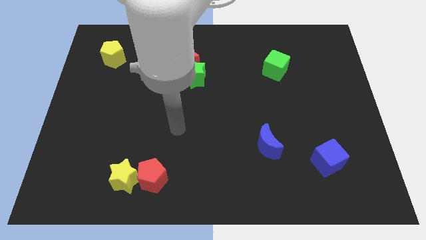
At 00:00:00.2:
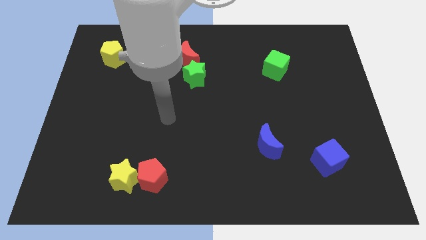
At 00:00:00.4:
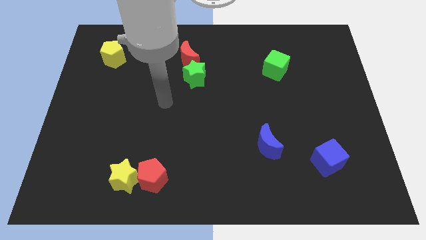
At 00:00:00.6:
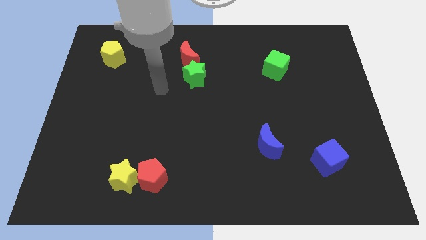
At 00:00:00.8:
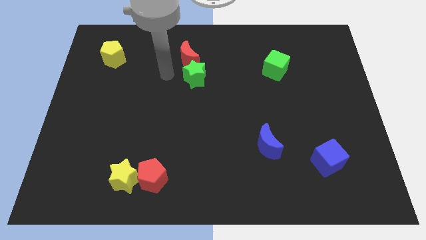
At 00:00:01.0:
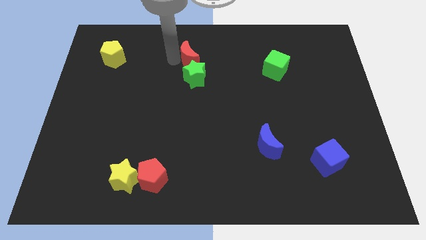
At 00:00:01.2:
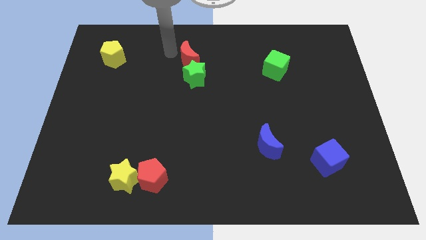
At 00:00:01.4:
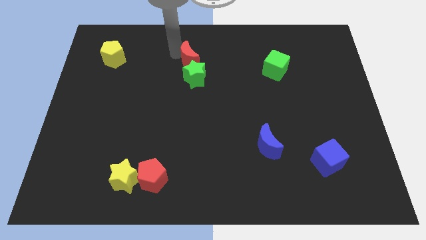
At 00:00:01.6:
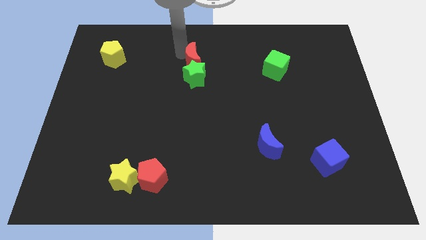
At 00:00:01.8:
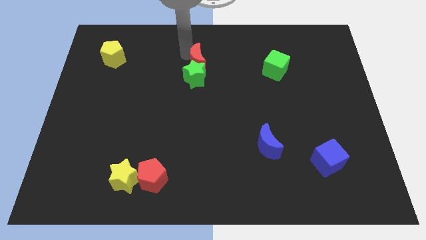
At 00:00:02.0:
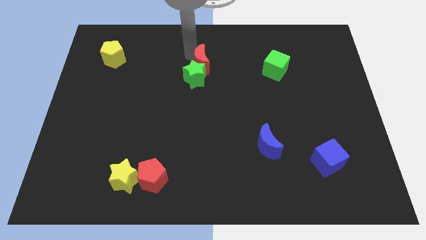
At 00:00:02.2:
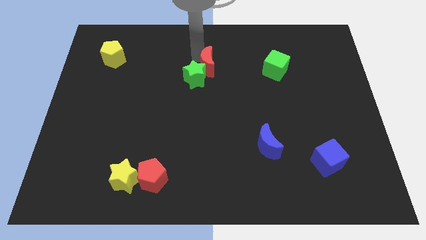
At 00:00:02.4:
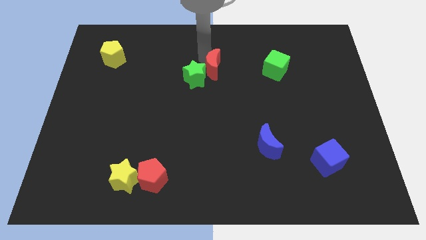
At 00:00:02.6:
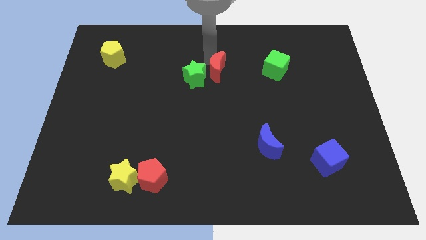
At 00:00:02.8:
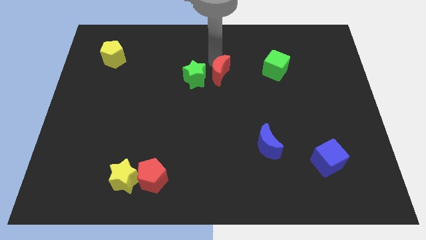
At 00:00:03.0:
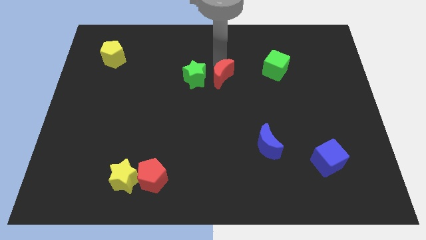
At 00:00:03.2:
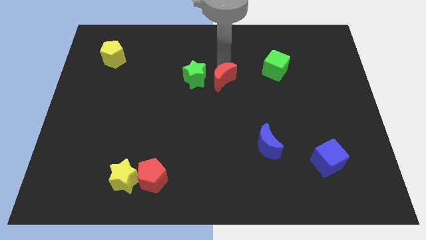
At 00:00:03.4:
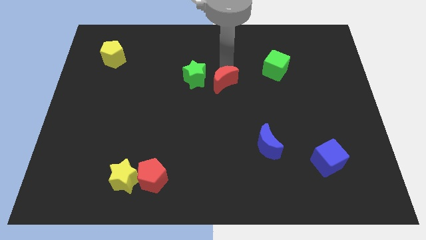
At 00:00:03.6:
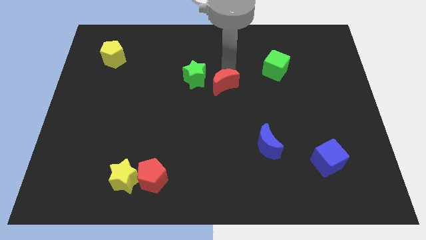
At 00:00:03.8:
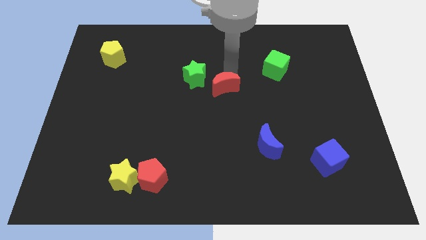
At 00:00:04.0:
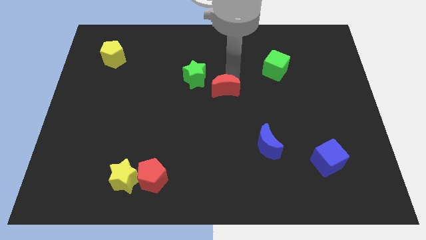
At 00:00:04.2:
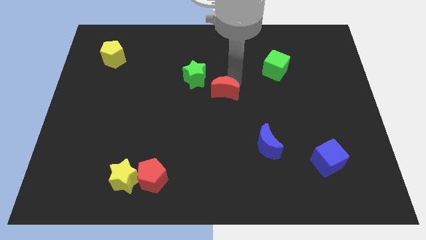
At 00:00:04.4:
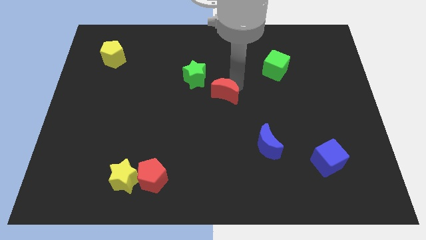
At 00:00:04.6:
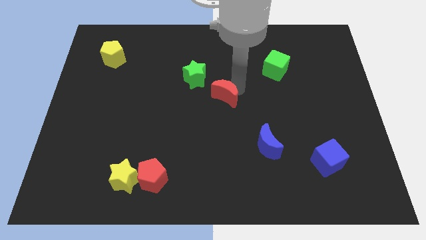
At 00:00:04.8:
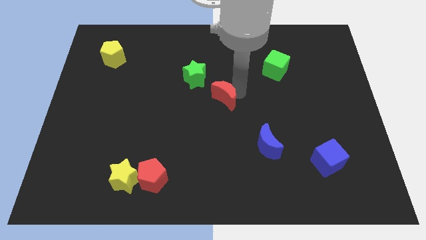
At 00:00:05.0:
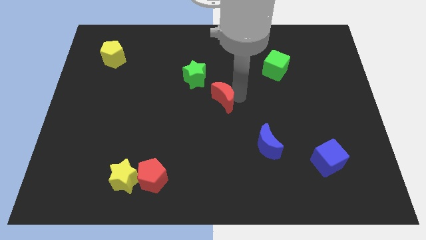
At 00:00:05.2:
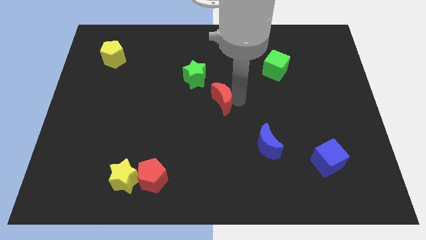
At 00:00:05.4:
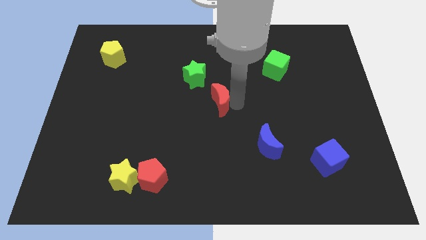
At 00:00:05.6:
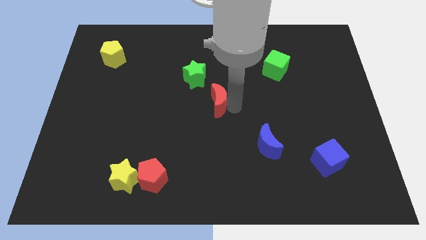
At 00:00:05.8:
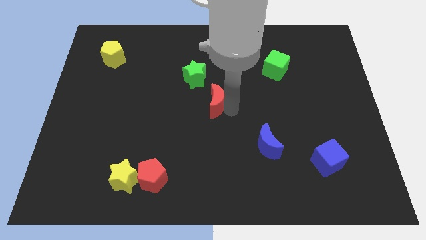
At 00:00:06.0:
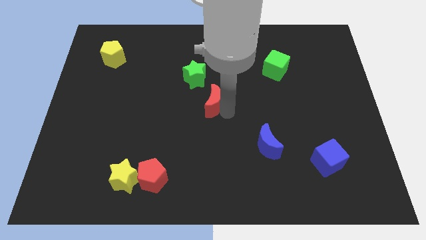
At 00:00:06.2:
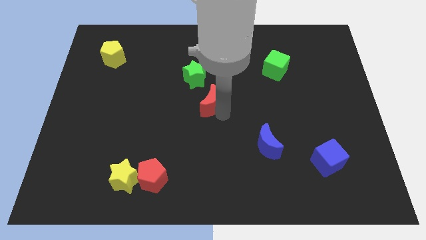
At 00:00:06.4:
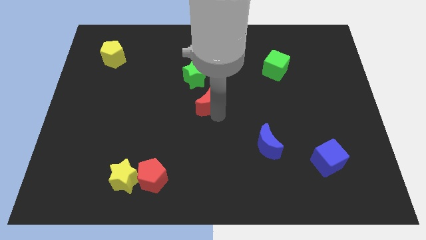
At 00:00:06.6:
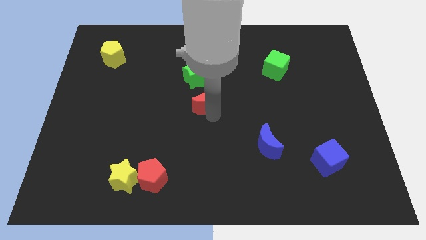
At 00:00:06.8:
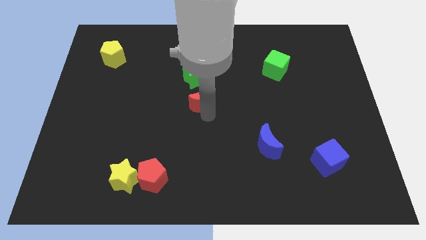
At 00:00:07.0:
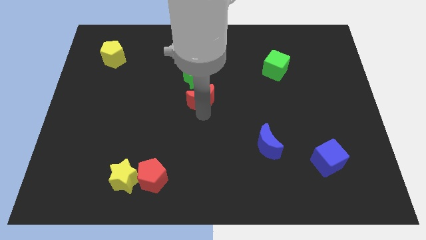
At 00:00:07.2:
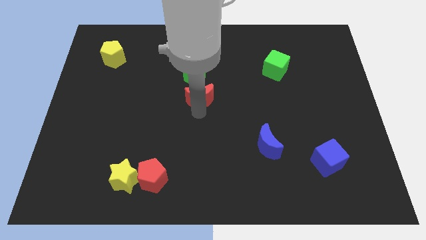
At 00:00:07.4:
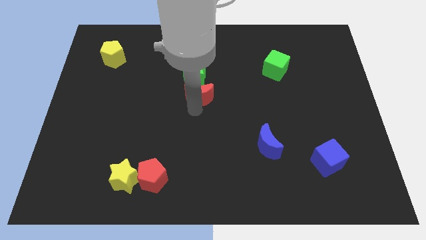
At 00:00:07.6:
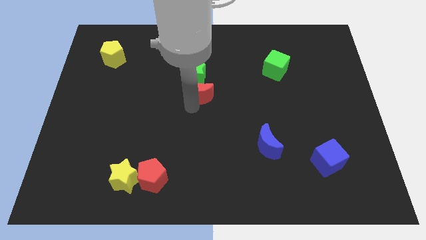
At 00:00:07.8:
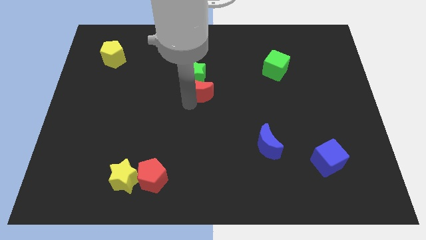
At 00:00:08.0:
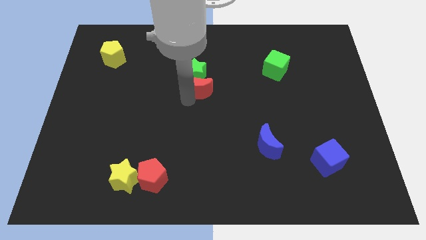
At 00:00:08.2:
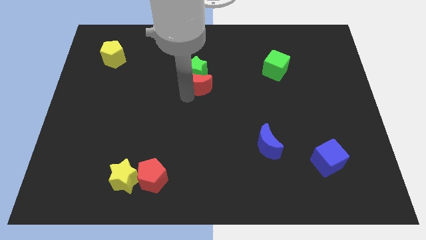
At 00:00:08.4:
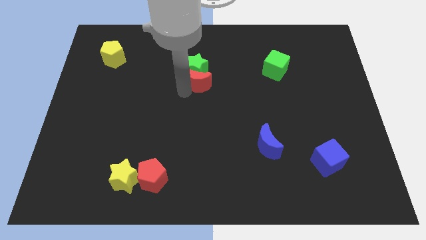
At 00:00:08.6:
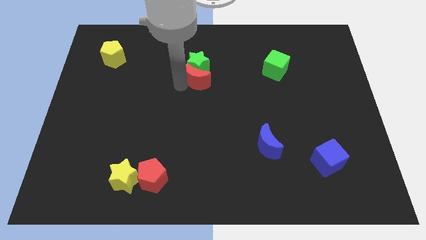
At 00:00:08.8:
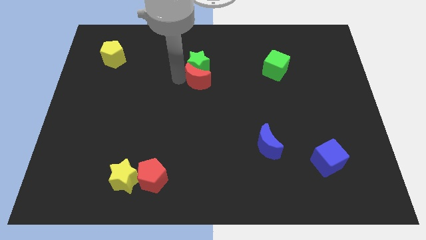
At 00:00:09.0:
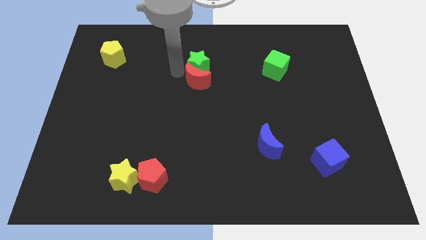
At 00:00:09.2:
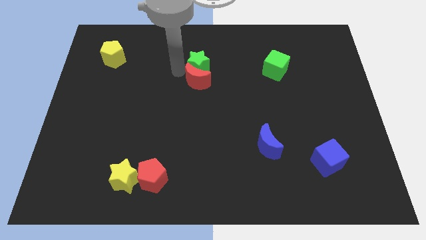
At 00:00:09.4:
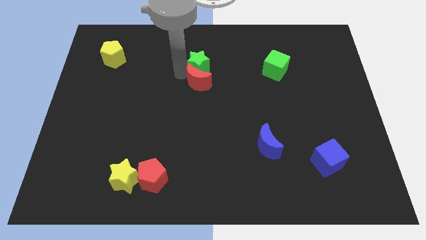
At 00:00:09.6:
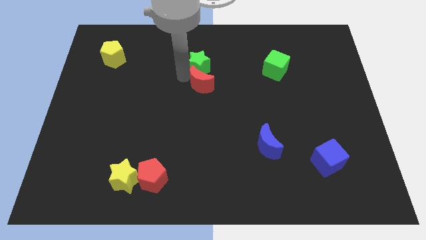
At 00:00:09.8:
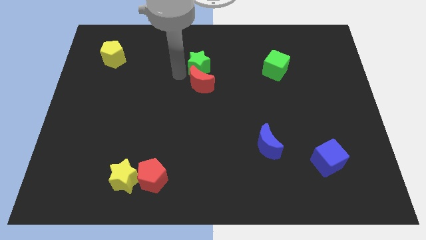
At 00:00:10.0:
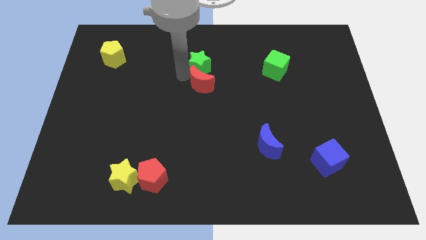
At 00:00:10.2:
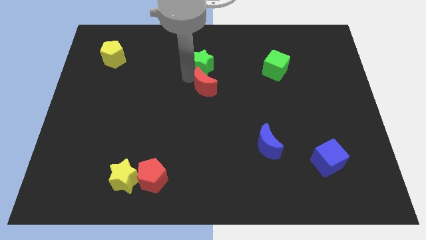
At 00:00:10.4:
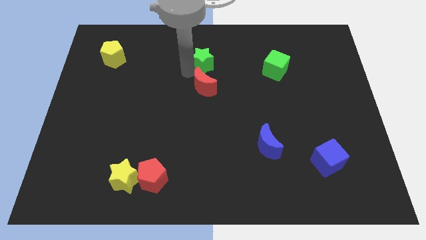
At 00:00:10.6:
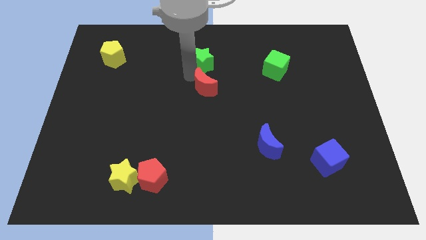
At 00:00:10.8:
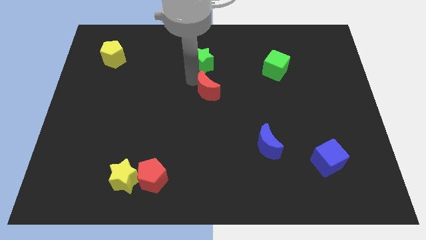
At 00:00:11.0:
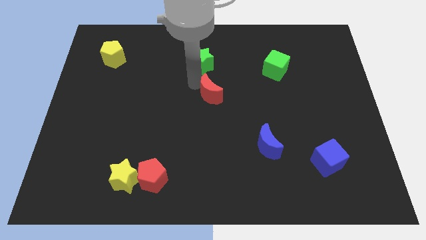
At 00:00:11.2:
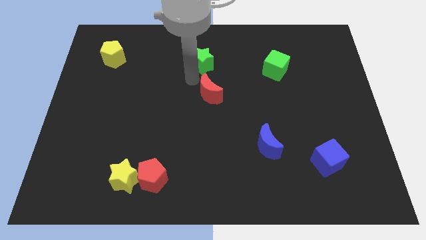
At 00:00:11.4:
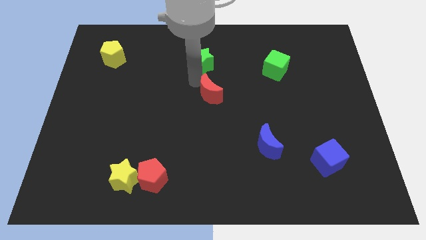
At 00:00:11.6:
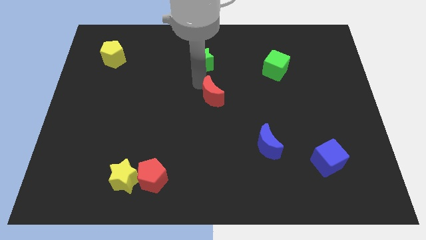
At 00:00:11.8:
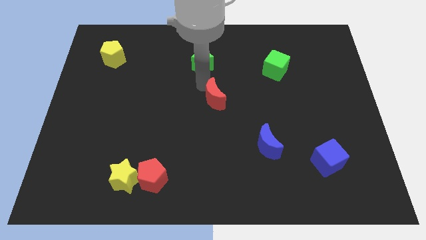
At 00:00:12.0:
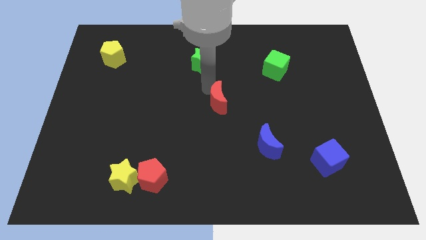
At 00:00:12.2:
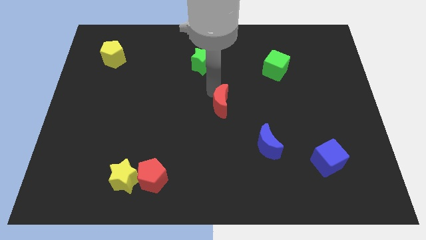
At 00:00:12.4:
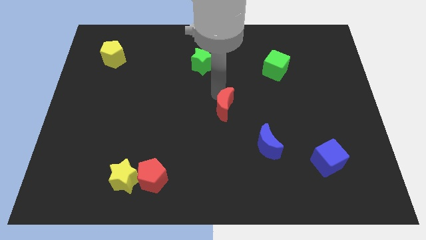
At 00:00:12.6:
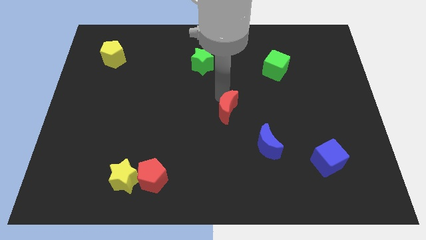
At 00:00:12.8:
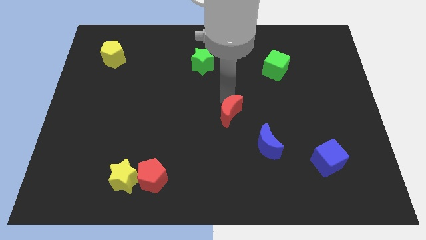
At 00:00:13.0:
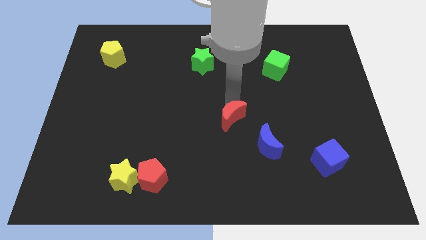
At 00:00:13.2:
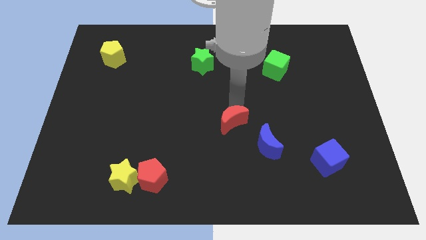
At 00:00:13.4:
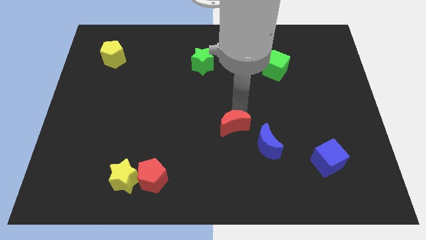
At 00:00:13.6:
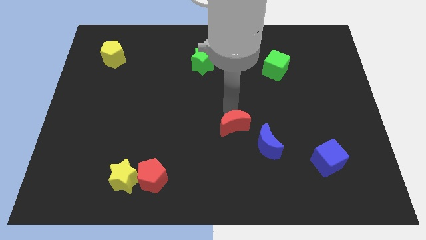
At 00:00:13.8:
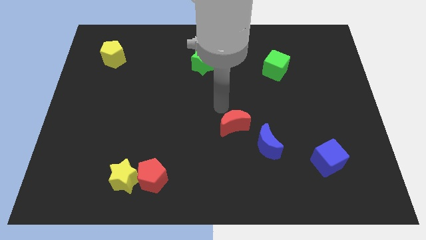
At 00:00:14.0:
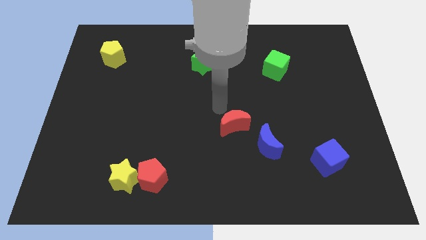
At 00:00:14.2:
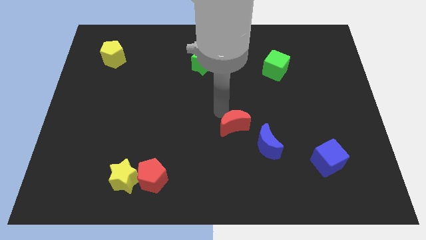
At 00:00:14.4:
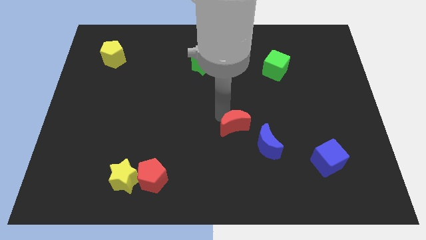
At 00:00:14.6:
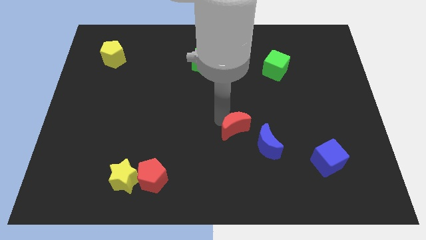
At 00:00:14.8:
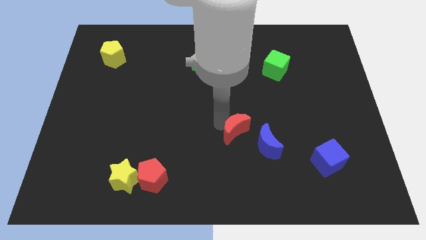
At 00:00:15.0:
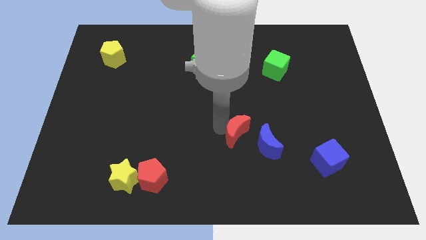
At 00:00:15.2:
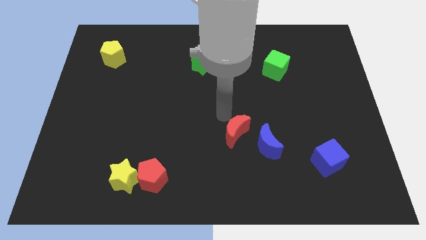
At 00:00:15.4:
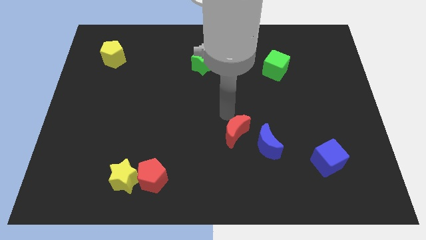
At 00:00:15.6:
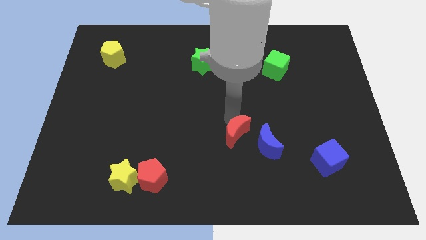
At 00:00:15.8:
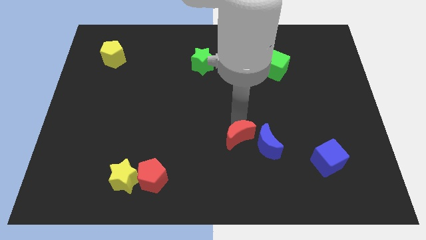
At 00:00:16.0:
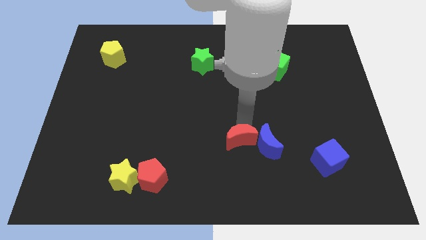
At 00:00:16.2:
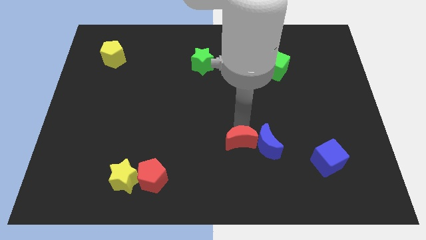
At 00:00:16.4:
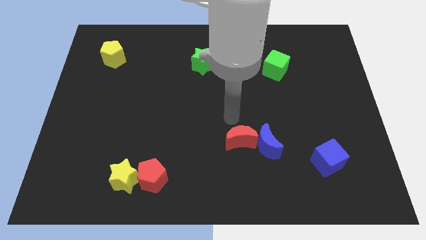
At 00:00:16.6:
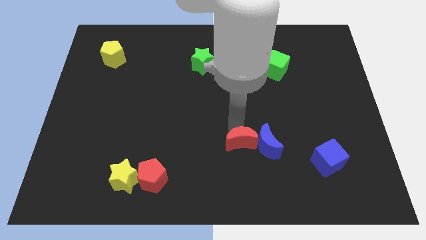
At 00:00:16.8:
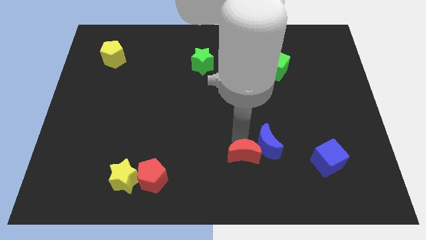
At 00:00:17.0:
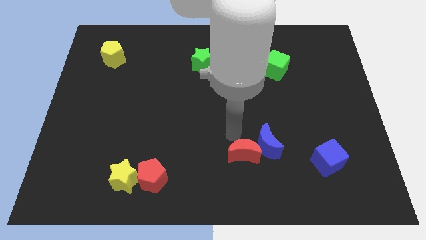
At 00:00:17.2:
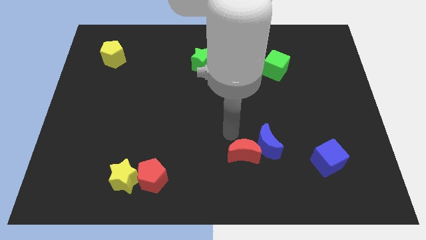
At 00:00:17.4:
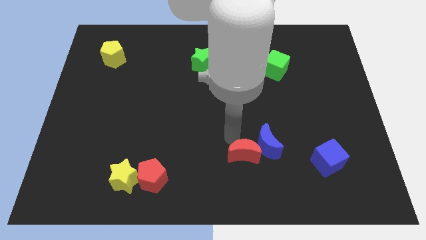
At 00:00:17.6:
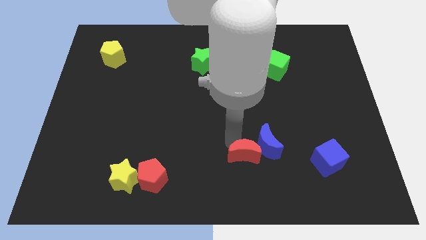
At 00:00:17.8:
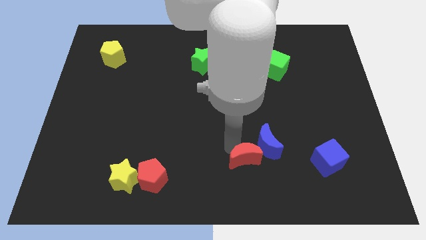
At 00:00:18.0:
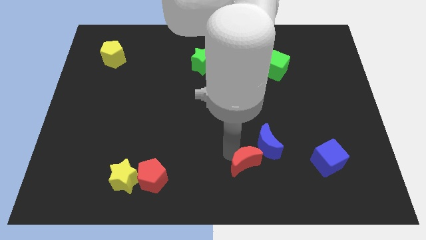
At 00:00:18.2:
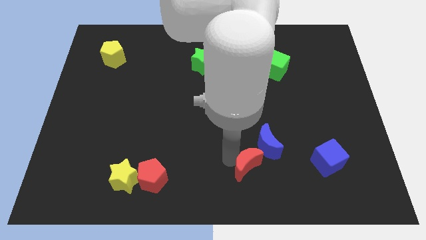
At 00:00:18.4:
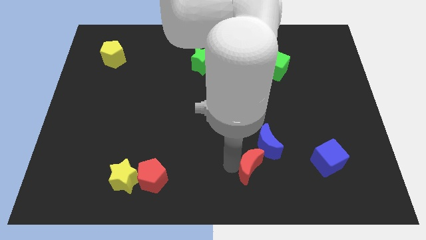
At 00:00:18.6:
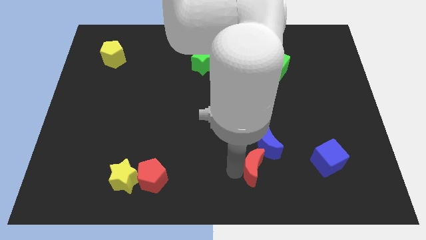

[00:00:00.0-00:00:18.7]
slide the red moon to the left side of the blue cube
